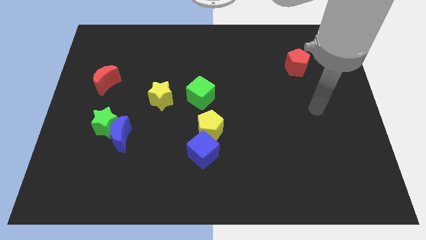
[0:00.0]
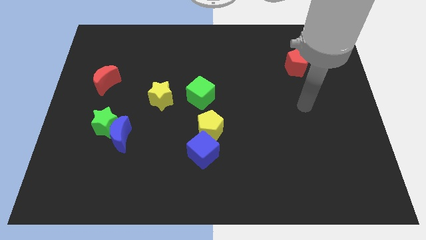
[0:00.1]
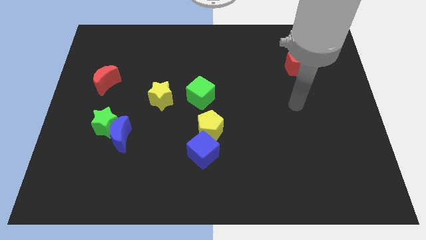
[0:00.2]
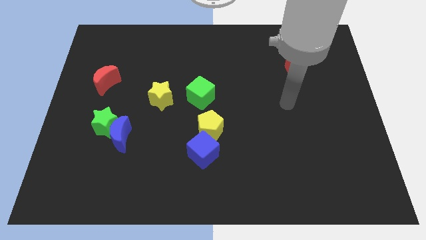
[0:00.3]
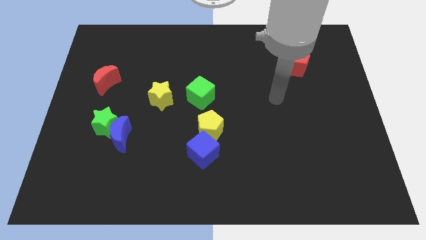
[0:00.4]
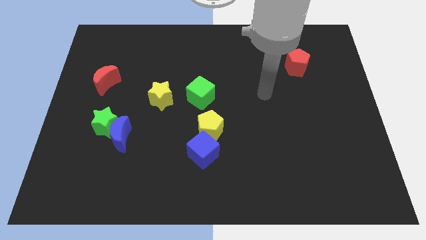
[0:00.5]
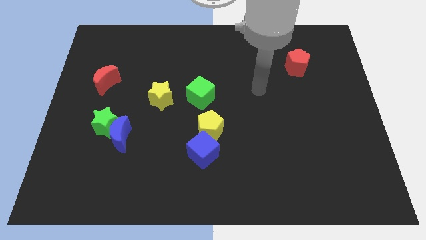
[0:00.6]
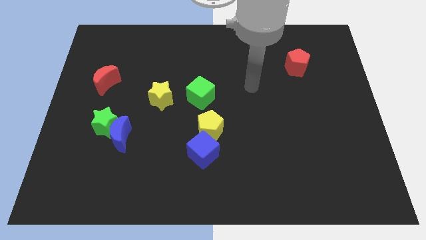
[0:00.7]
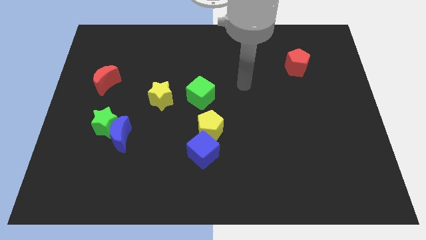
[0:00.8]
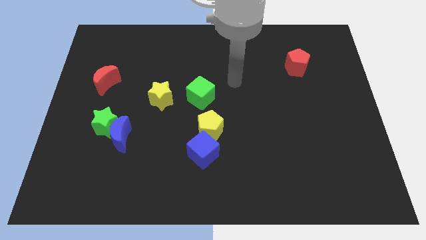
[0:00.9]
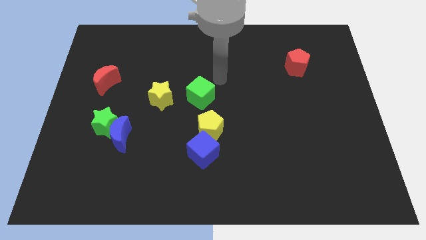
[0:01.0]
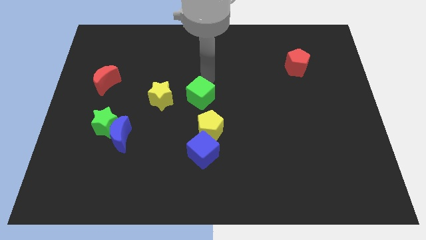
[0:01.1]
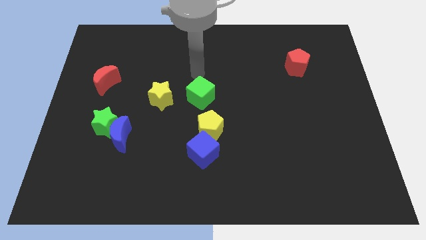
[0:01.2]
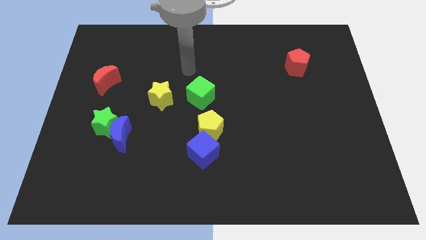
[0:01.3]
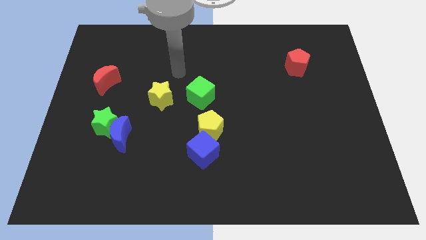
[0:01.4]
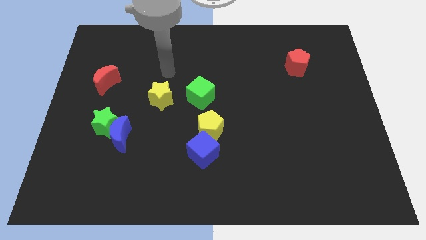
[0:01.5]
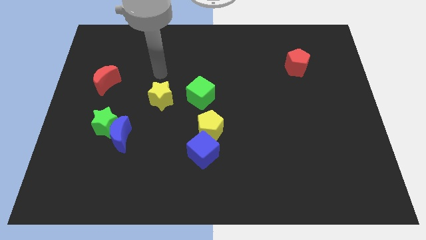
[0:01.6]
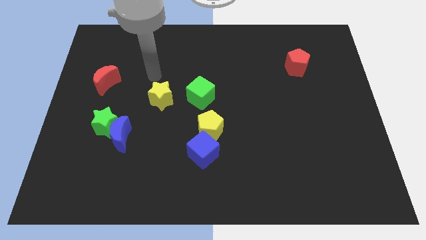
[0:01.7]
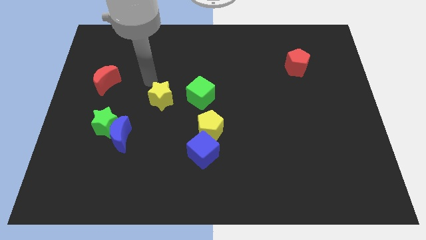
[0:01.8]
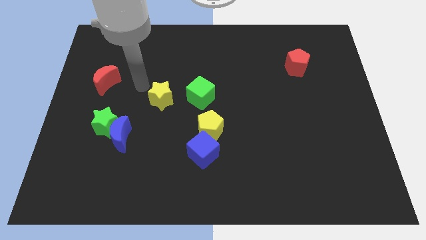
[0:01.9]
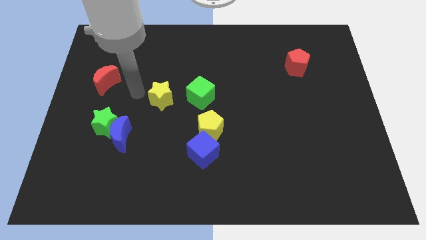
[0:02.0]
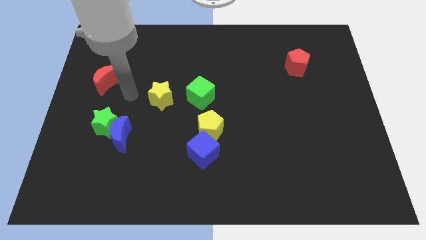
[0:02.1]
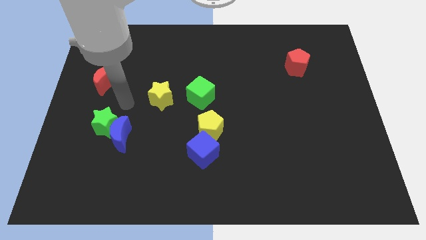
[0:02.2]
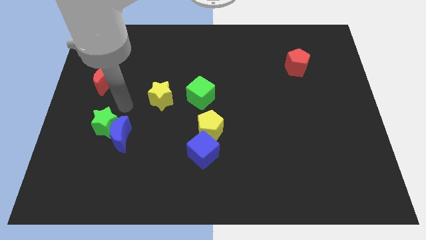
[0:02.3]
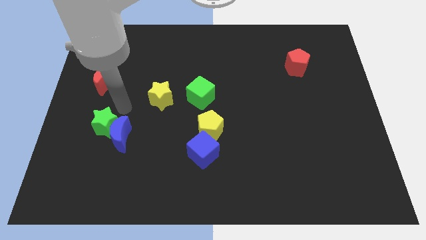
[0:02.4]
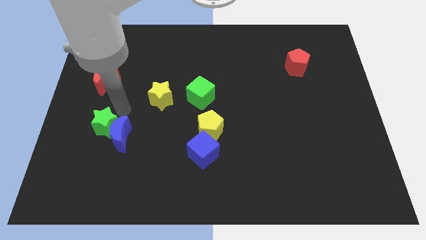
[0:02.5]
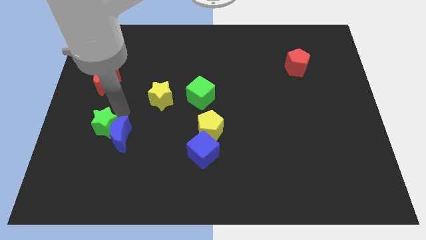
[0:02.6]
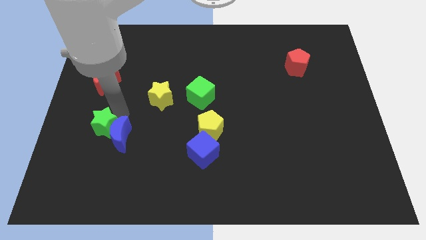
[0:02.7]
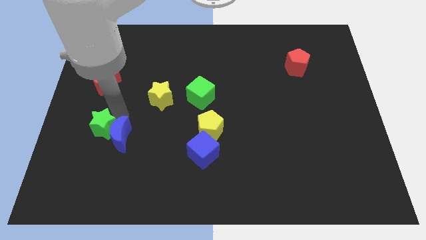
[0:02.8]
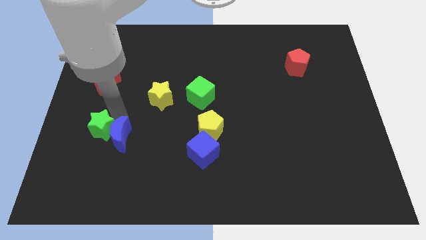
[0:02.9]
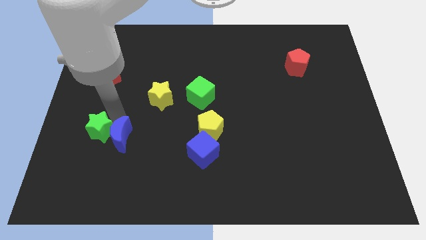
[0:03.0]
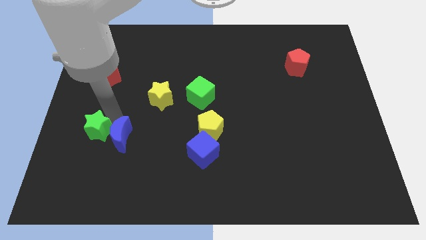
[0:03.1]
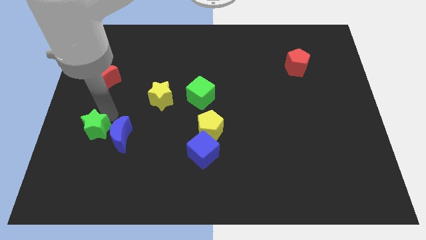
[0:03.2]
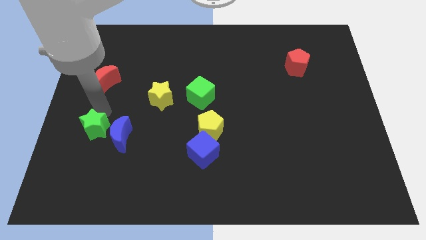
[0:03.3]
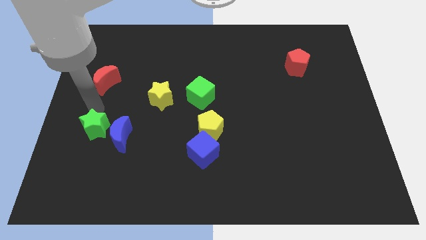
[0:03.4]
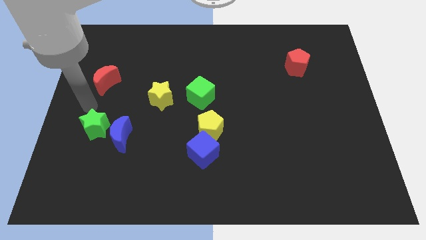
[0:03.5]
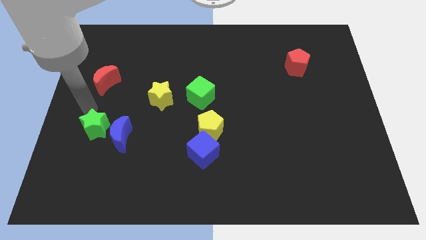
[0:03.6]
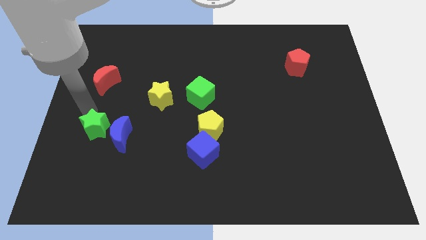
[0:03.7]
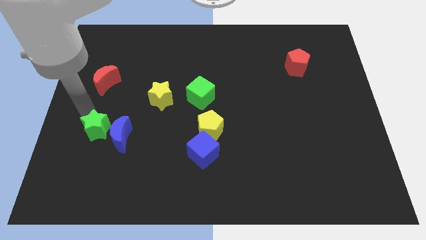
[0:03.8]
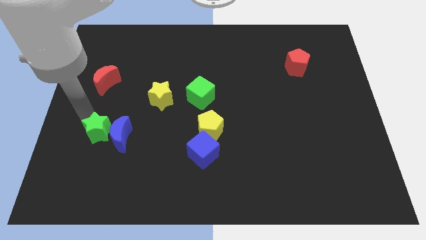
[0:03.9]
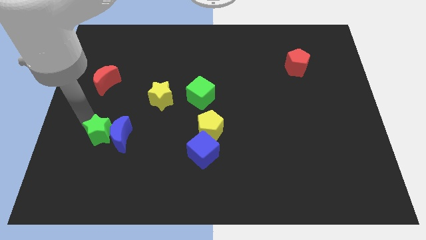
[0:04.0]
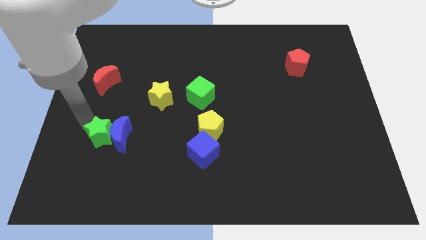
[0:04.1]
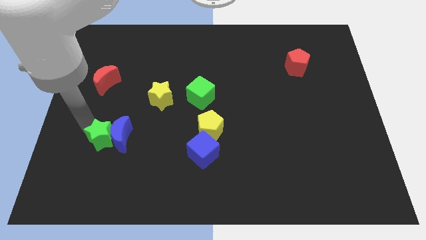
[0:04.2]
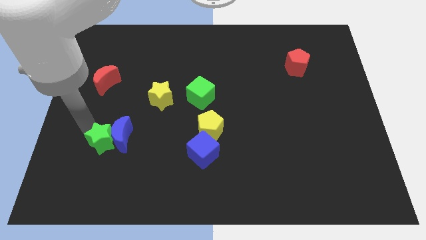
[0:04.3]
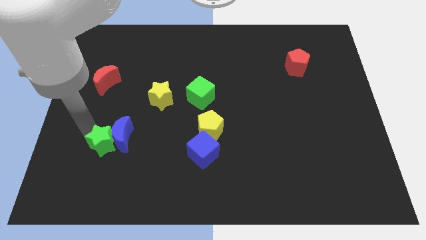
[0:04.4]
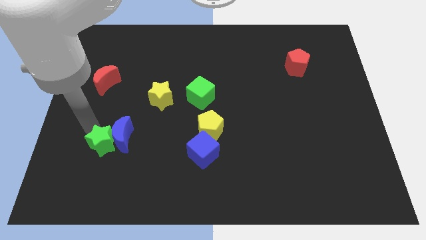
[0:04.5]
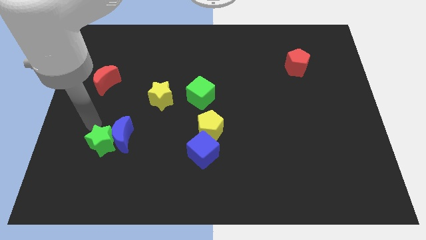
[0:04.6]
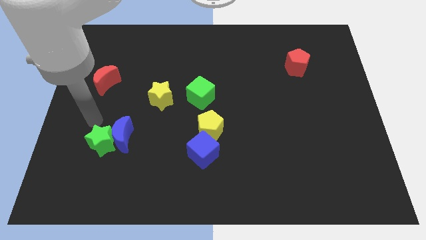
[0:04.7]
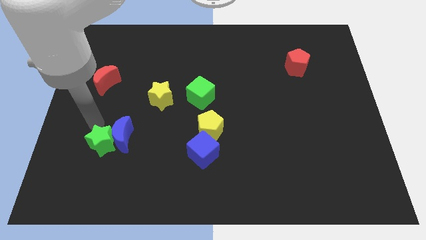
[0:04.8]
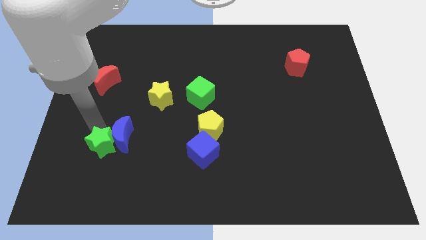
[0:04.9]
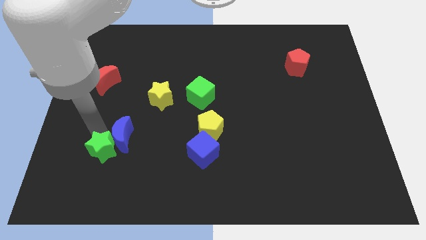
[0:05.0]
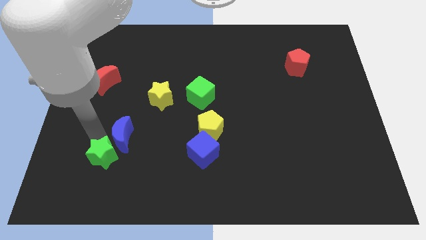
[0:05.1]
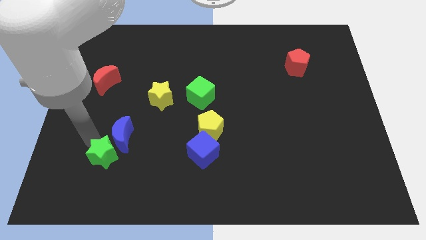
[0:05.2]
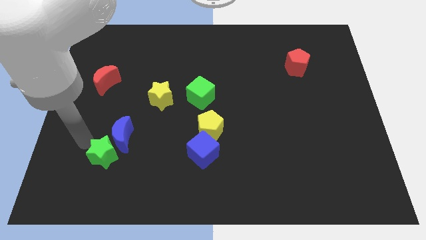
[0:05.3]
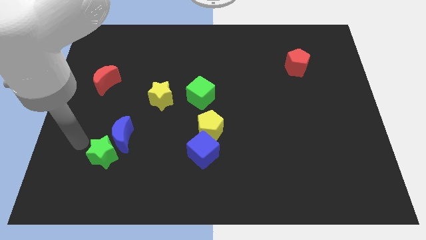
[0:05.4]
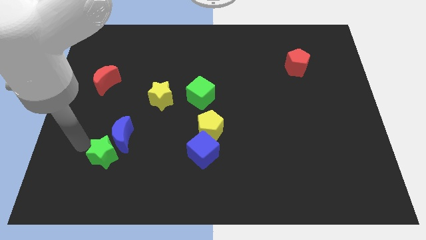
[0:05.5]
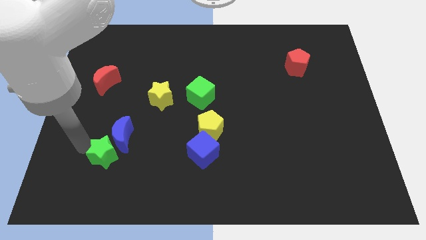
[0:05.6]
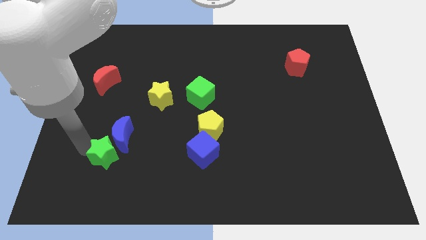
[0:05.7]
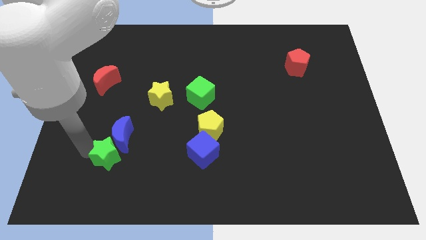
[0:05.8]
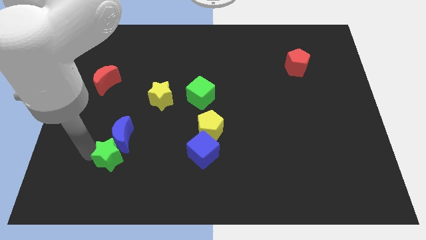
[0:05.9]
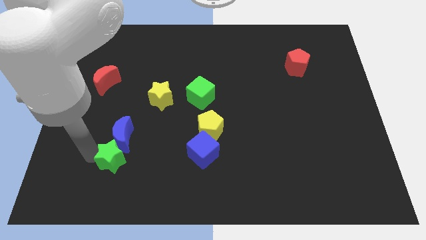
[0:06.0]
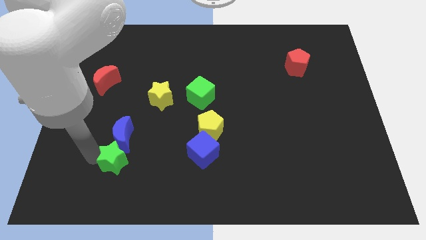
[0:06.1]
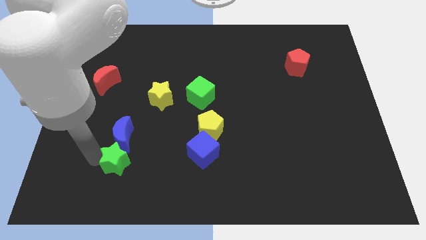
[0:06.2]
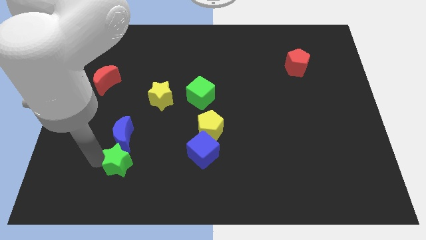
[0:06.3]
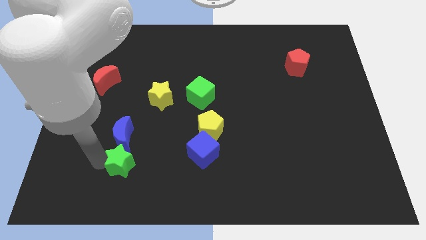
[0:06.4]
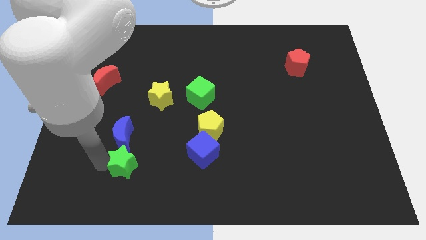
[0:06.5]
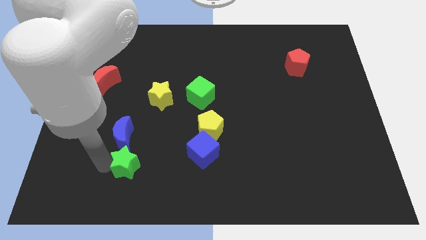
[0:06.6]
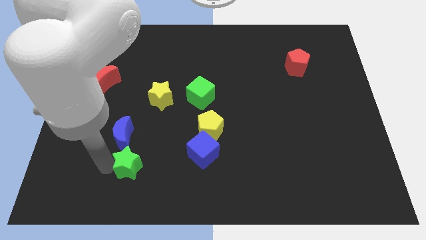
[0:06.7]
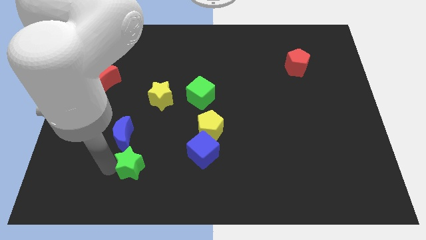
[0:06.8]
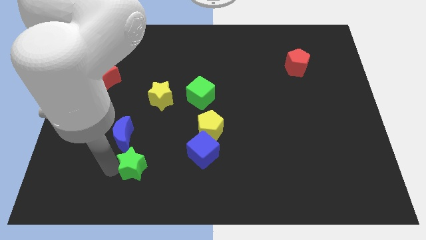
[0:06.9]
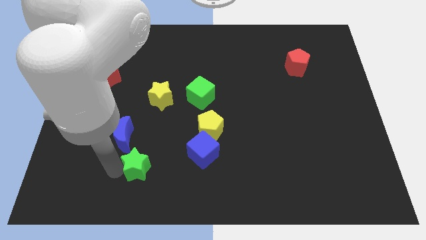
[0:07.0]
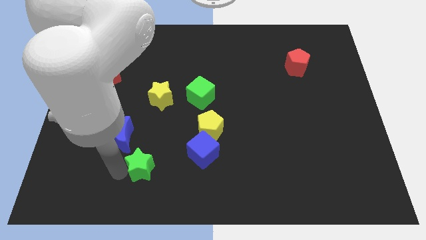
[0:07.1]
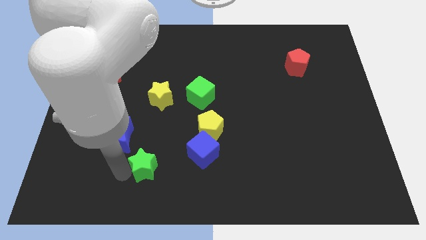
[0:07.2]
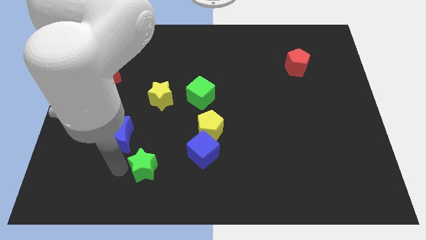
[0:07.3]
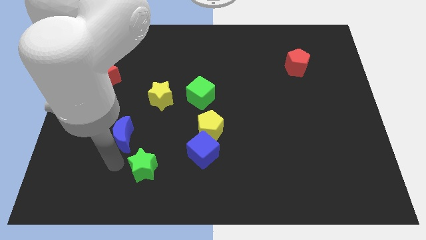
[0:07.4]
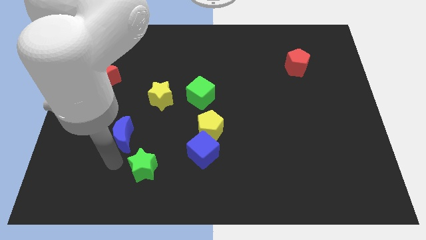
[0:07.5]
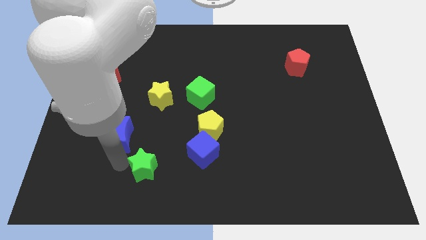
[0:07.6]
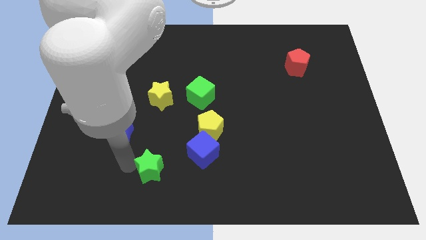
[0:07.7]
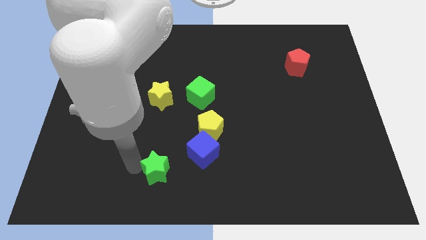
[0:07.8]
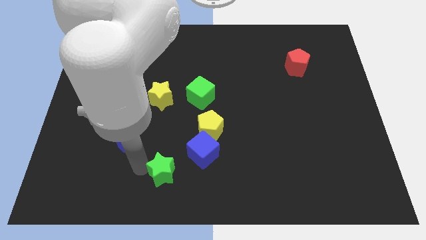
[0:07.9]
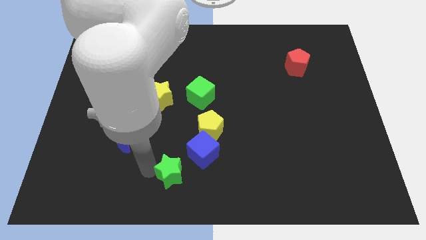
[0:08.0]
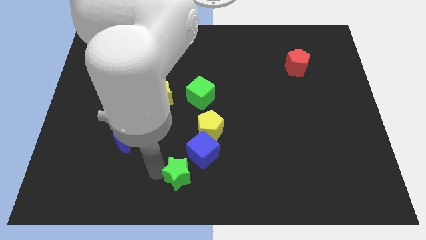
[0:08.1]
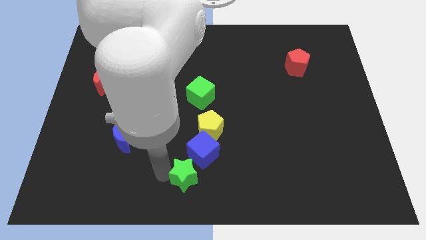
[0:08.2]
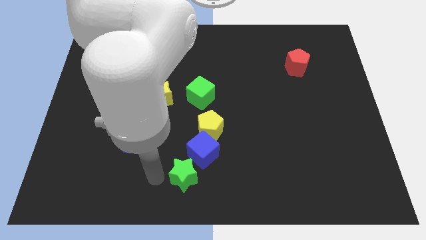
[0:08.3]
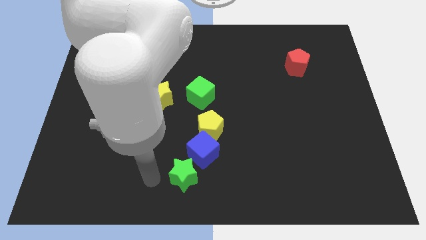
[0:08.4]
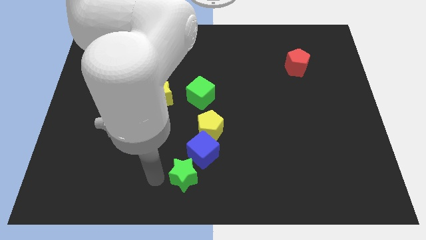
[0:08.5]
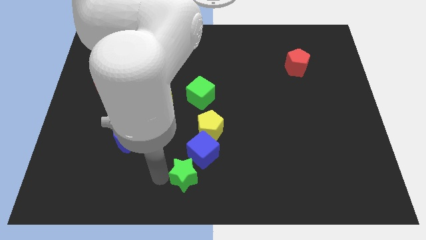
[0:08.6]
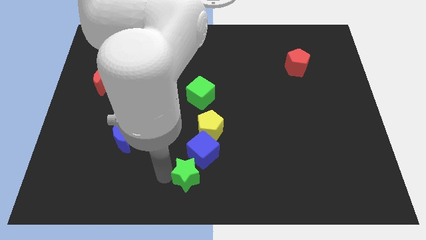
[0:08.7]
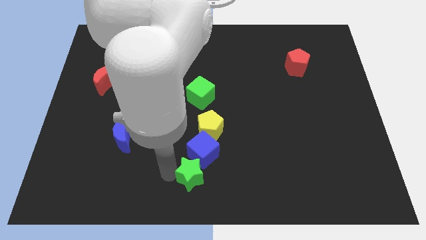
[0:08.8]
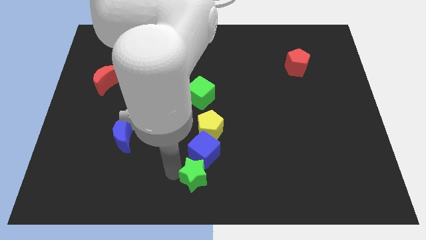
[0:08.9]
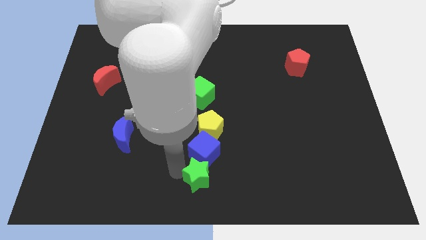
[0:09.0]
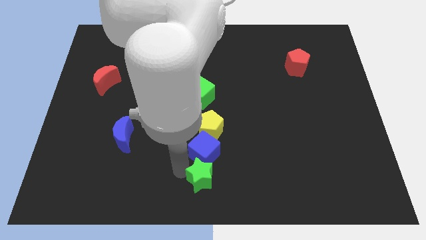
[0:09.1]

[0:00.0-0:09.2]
push the green star to the bottom right of the blue cube
